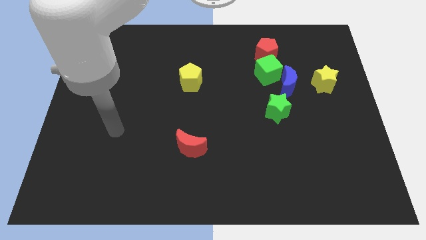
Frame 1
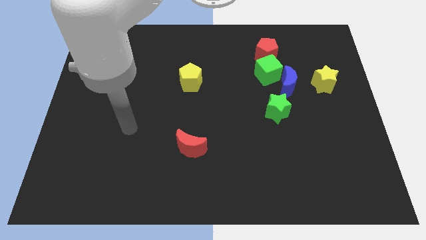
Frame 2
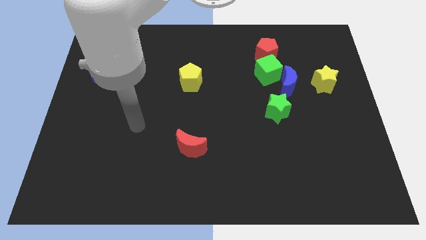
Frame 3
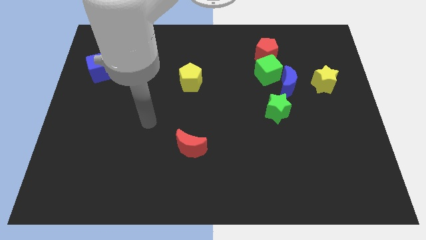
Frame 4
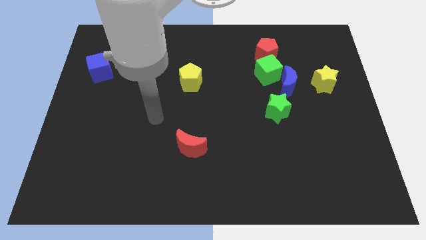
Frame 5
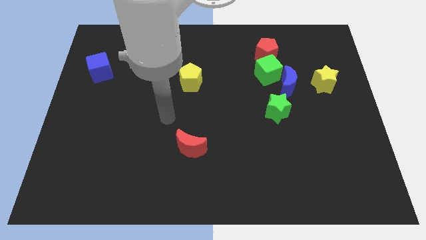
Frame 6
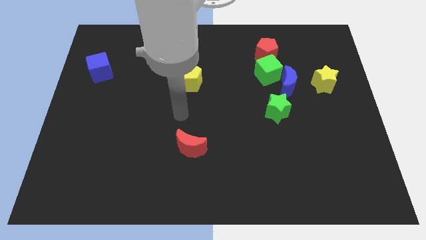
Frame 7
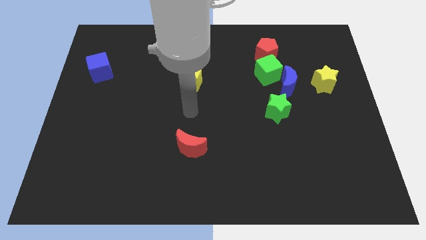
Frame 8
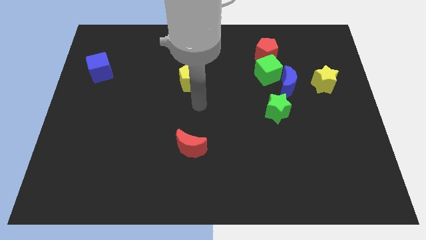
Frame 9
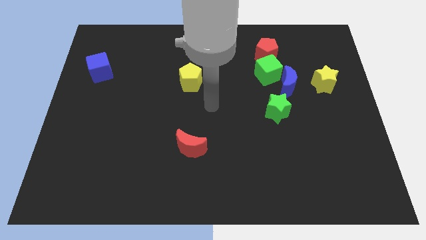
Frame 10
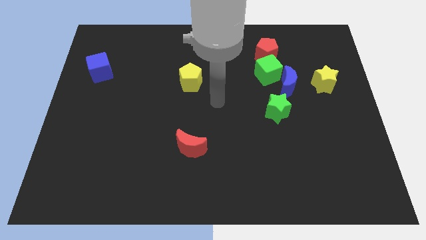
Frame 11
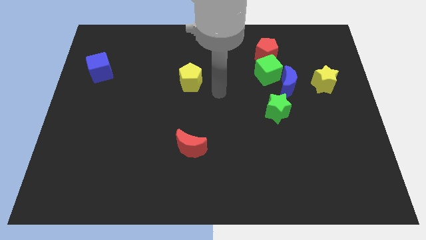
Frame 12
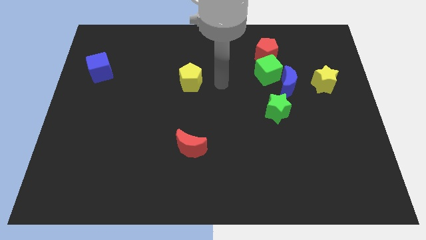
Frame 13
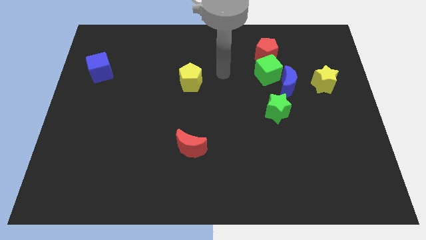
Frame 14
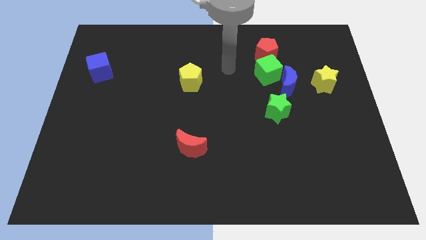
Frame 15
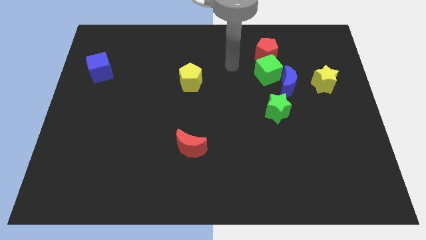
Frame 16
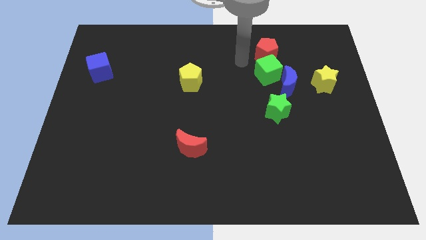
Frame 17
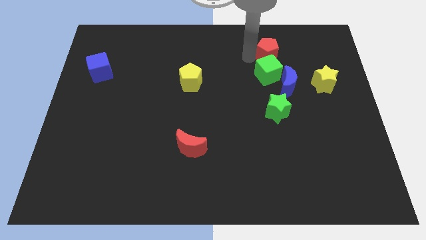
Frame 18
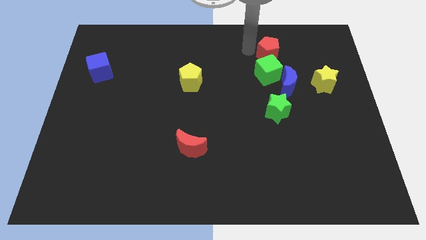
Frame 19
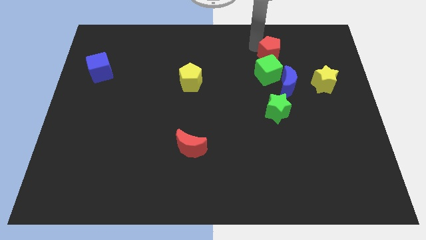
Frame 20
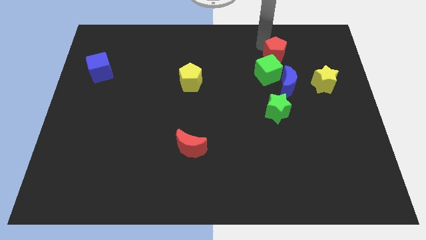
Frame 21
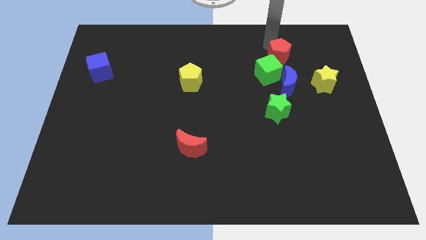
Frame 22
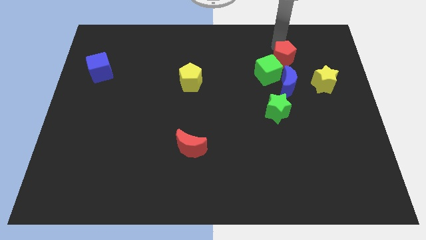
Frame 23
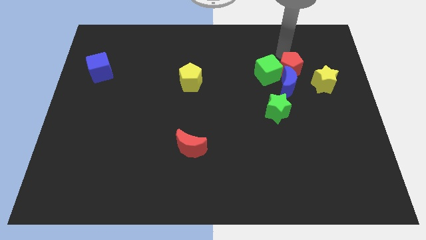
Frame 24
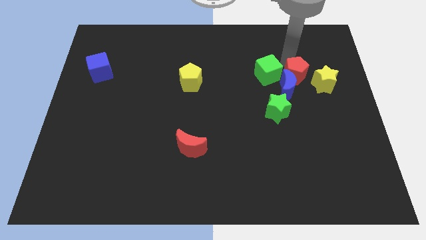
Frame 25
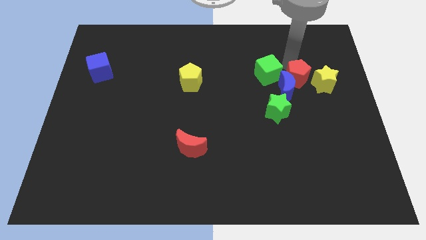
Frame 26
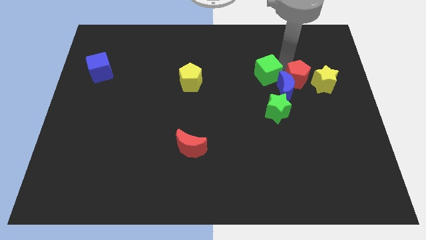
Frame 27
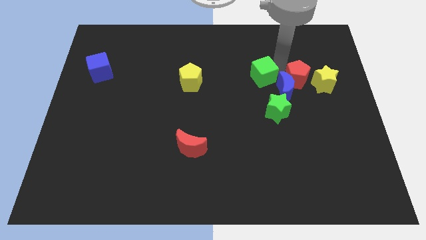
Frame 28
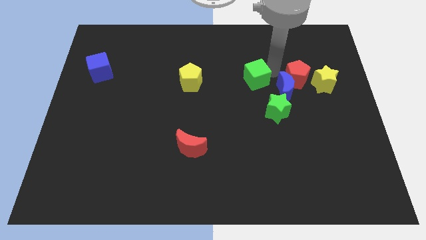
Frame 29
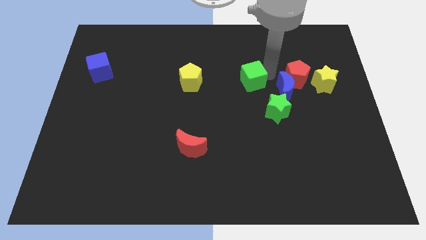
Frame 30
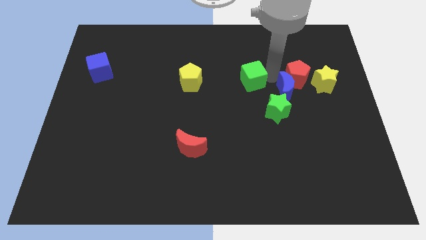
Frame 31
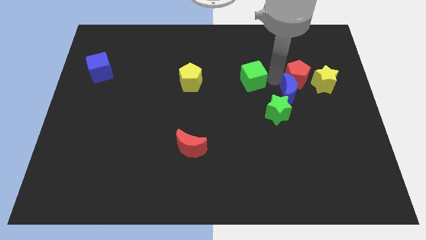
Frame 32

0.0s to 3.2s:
separate the green cube from the blue moon and red pentagon

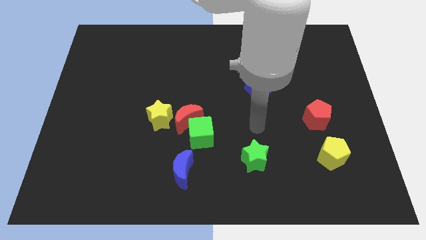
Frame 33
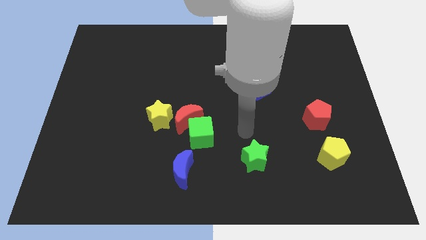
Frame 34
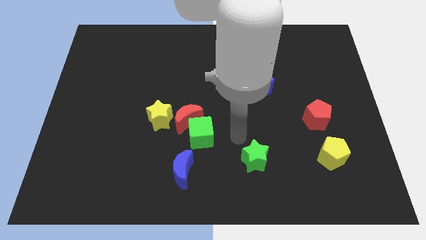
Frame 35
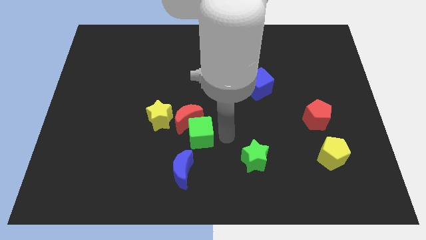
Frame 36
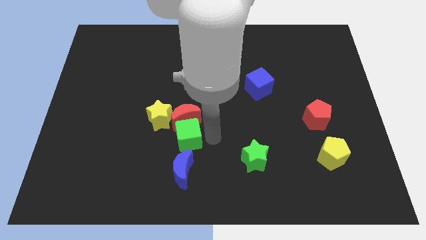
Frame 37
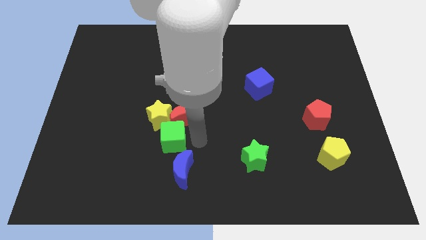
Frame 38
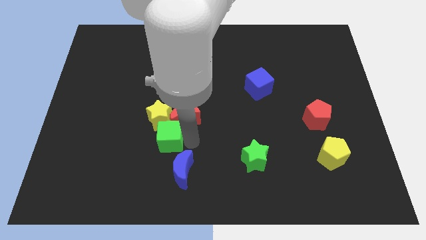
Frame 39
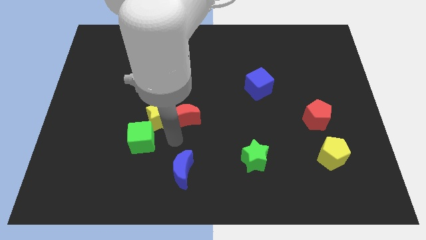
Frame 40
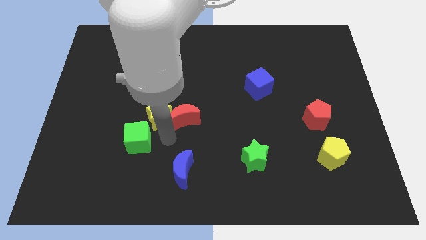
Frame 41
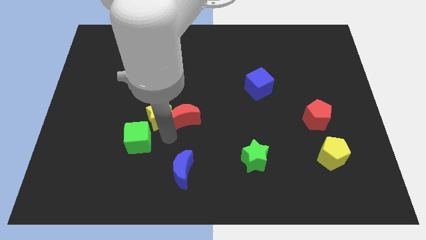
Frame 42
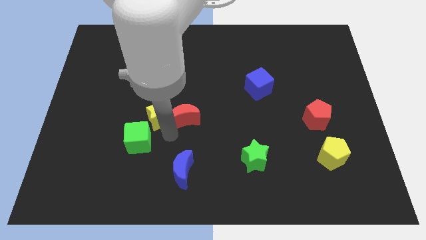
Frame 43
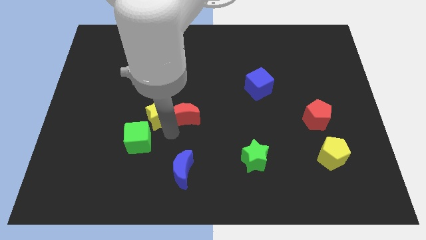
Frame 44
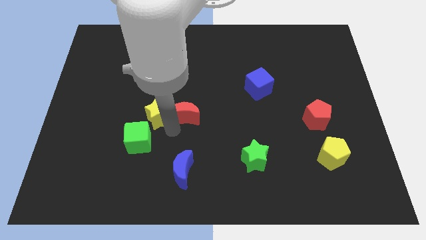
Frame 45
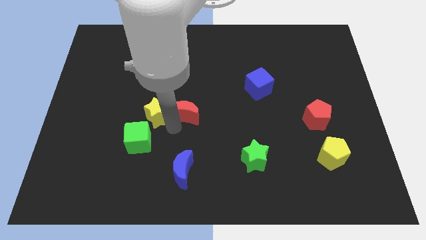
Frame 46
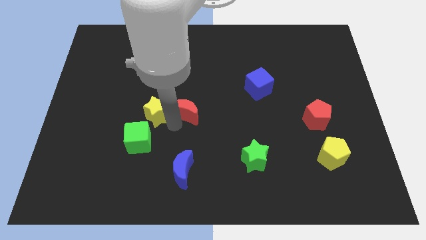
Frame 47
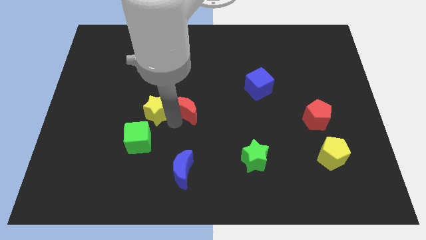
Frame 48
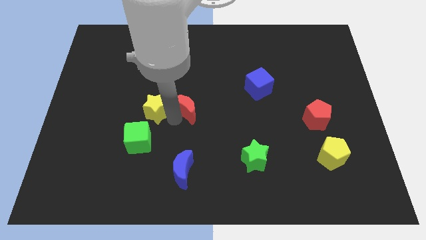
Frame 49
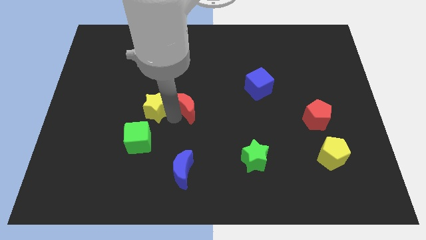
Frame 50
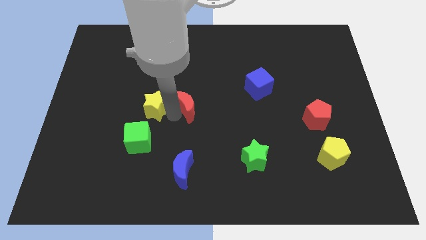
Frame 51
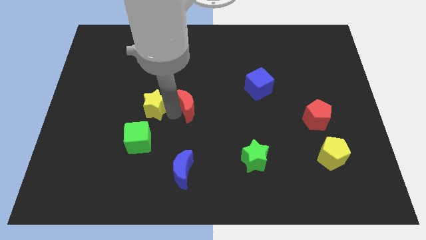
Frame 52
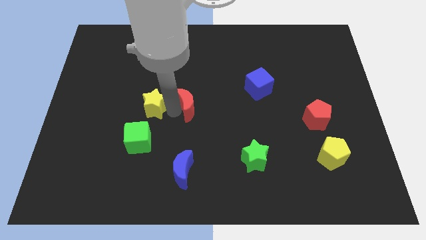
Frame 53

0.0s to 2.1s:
move the red moon away from the green cube and yellow star

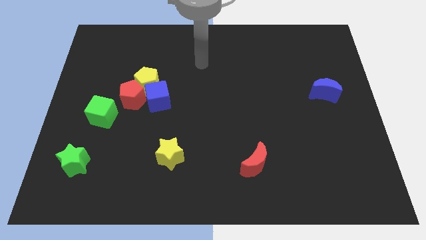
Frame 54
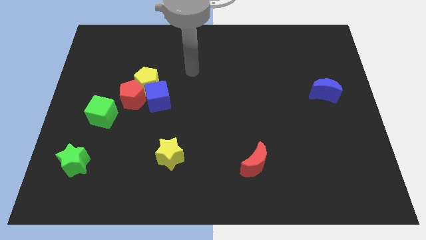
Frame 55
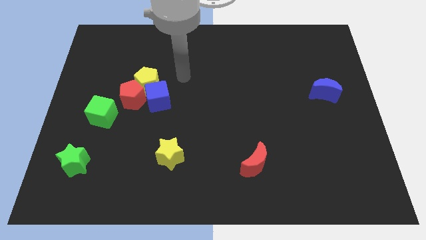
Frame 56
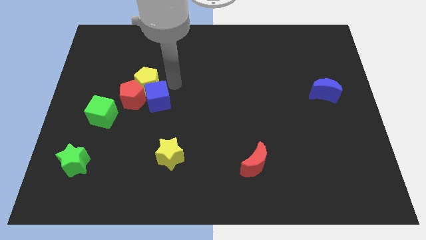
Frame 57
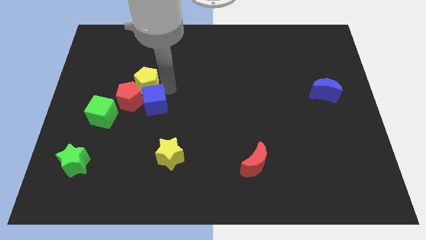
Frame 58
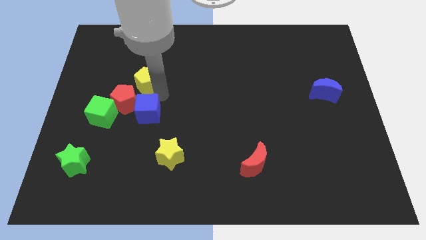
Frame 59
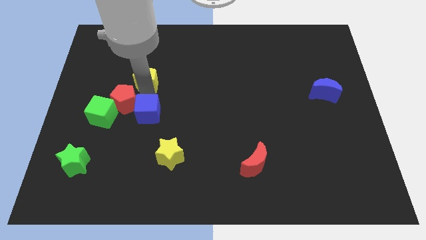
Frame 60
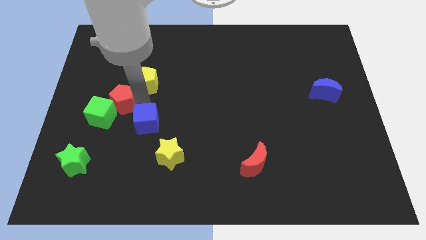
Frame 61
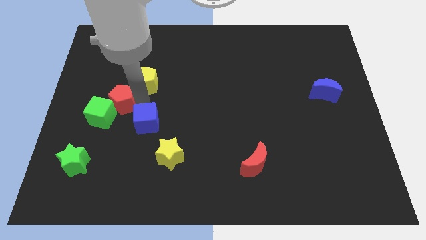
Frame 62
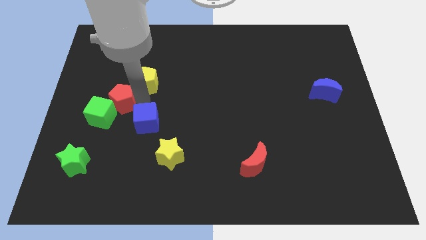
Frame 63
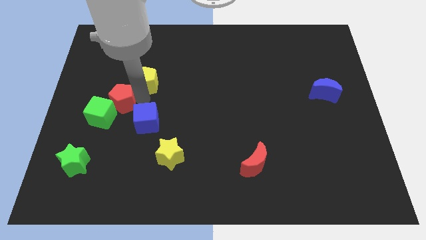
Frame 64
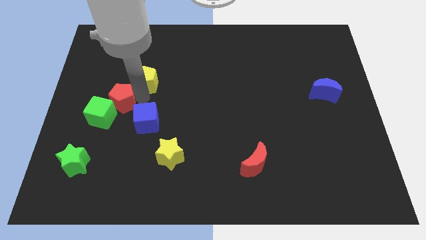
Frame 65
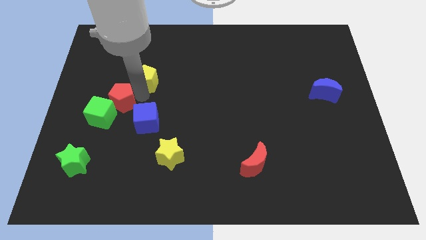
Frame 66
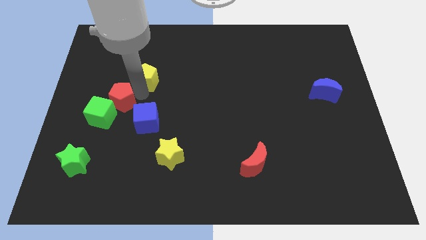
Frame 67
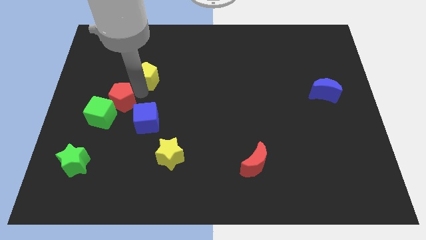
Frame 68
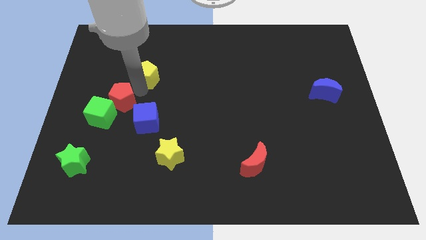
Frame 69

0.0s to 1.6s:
move the yellow pentagon away from the red pentagon and blue cube

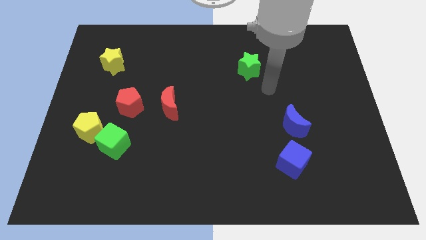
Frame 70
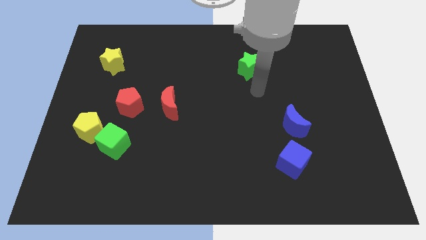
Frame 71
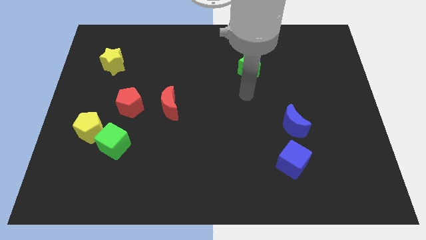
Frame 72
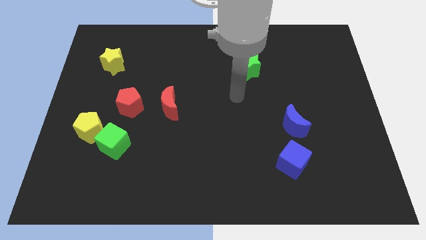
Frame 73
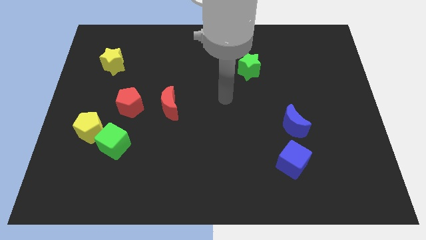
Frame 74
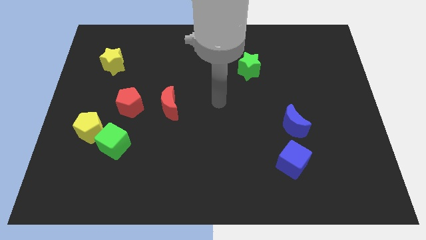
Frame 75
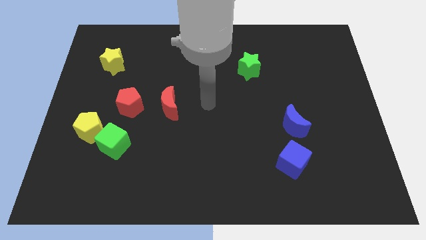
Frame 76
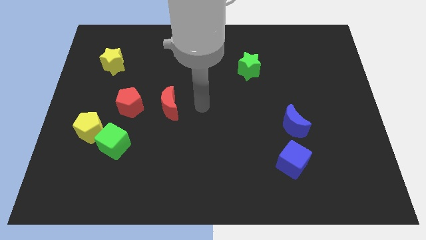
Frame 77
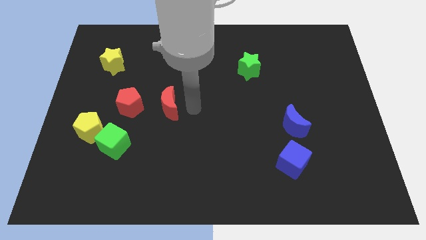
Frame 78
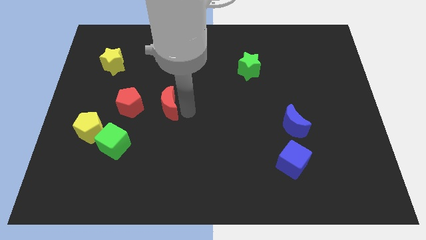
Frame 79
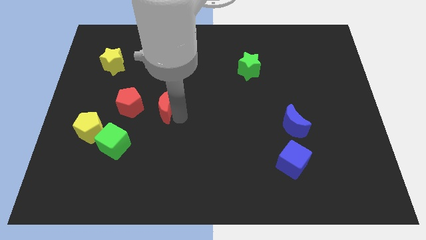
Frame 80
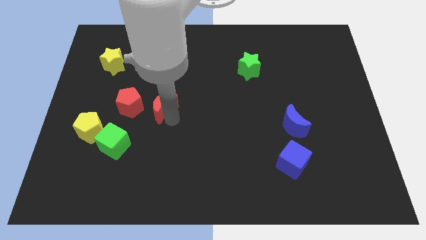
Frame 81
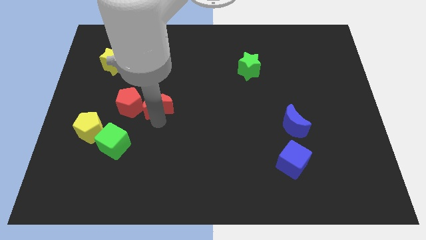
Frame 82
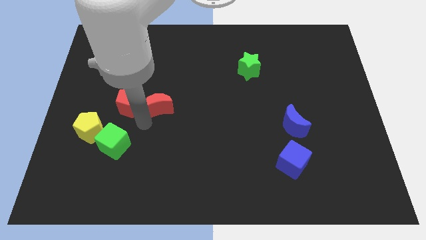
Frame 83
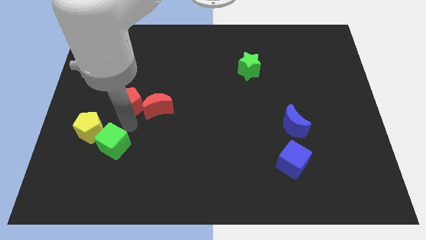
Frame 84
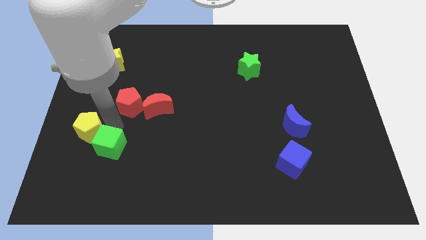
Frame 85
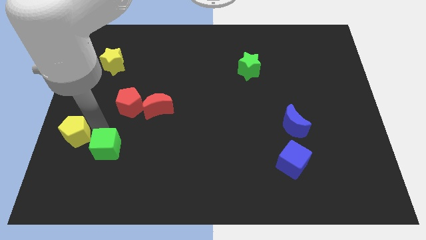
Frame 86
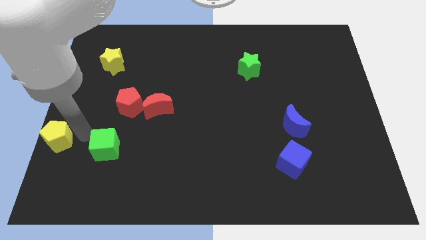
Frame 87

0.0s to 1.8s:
pull the green cube apart from the yellow pentagon

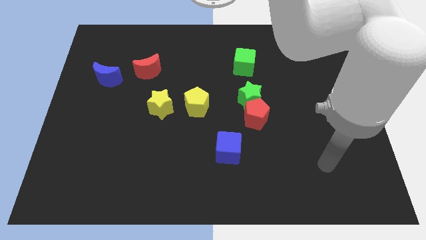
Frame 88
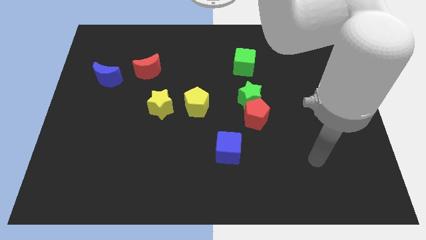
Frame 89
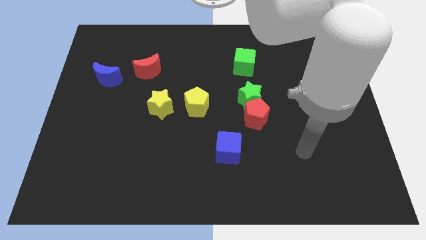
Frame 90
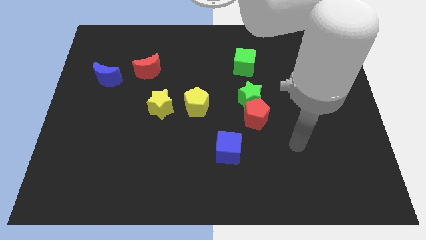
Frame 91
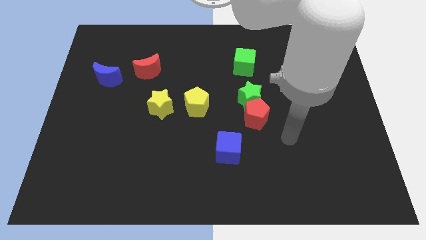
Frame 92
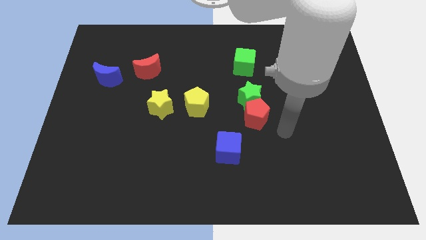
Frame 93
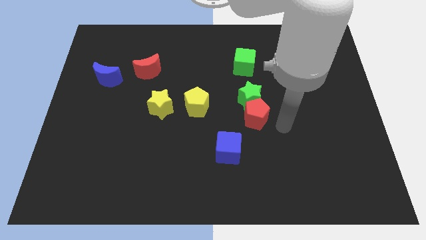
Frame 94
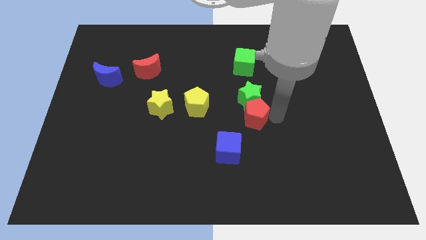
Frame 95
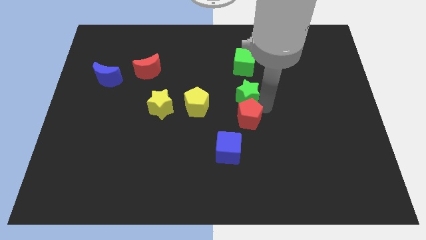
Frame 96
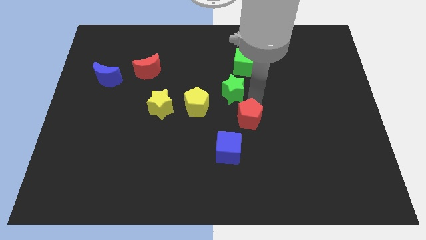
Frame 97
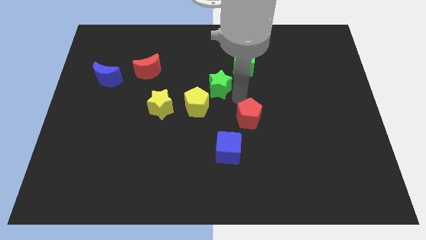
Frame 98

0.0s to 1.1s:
move the red pentagon away from the green star
